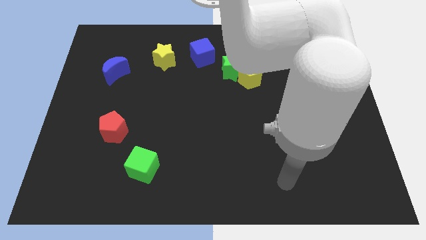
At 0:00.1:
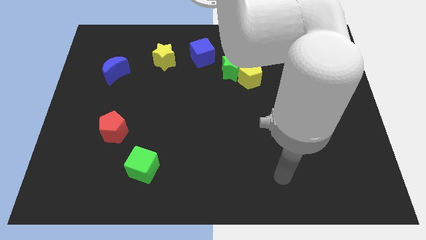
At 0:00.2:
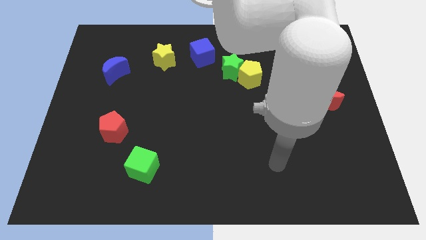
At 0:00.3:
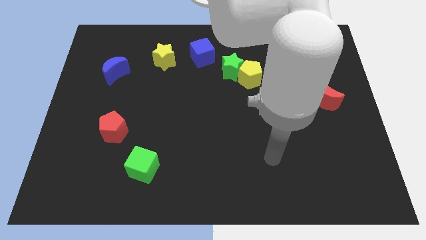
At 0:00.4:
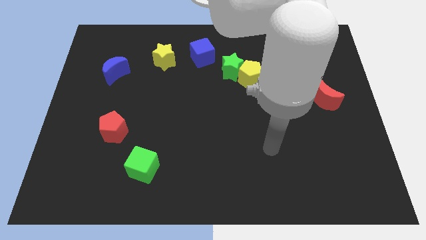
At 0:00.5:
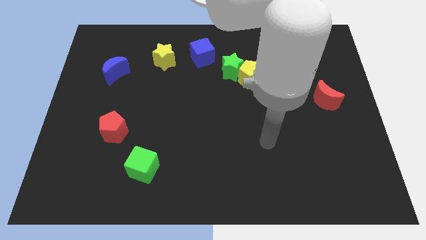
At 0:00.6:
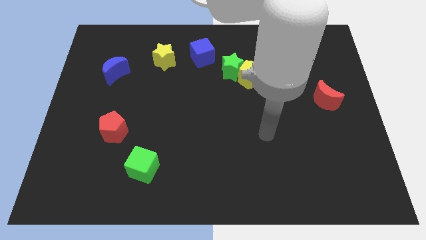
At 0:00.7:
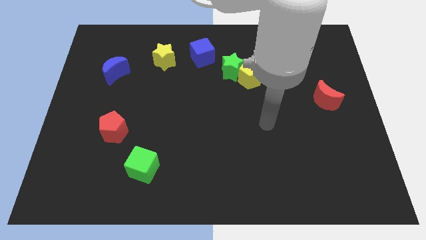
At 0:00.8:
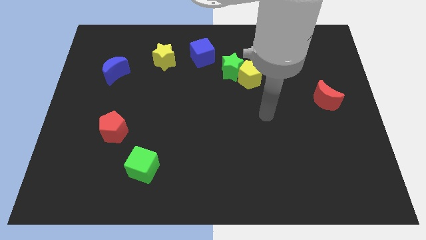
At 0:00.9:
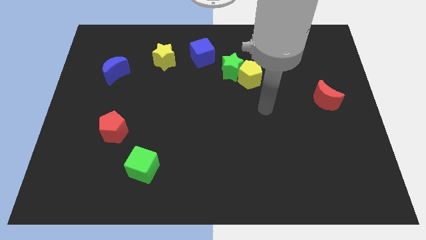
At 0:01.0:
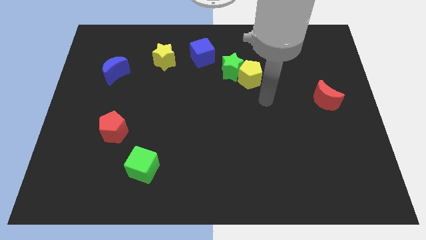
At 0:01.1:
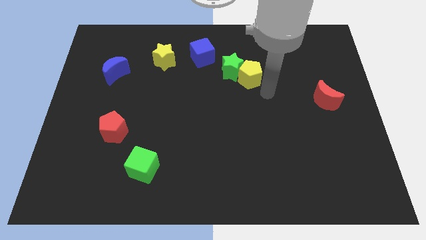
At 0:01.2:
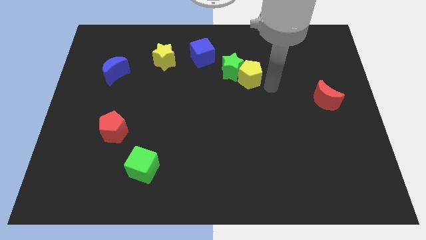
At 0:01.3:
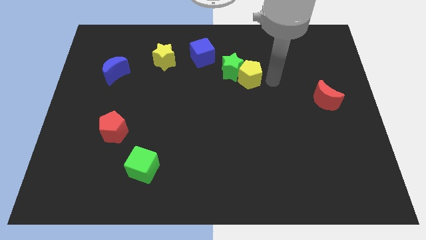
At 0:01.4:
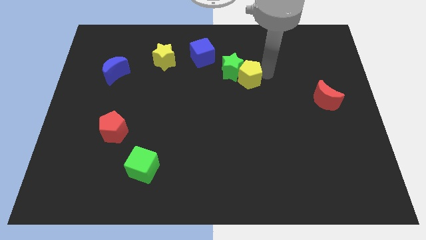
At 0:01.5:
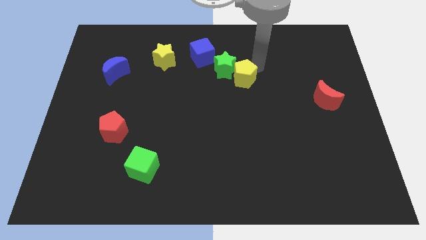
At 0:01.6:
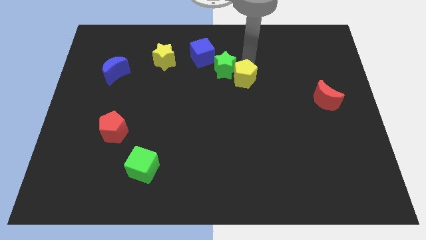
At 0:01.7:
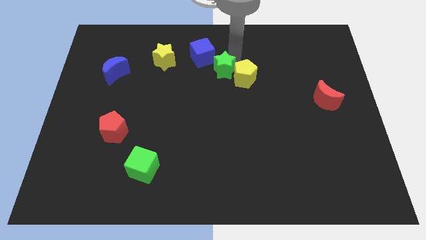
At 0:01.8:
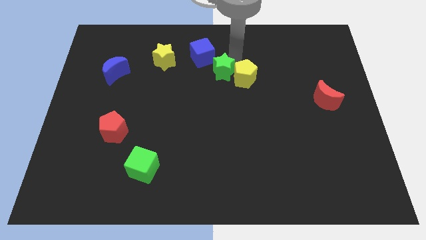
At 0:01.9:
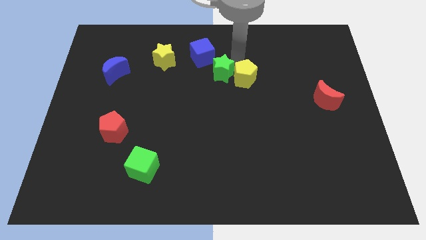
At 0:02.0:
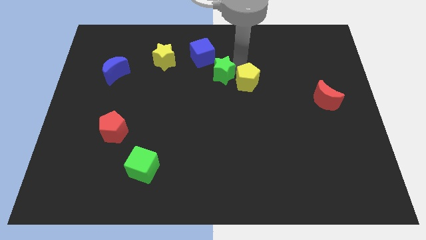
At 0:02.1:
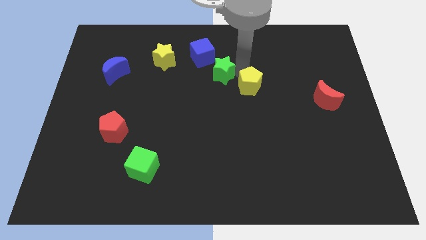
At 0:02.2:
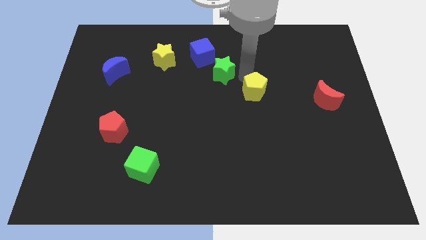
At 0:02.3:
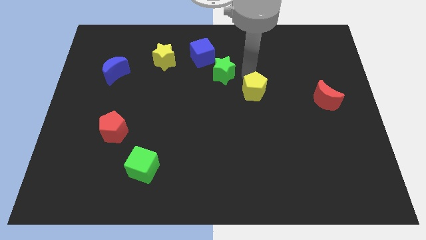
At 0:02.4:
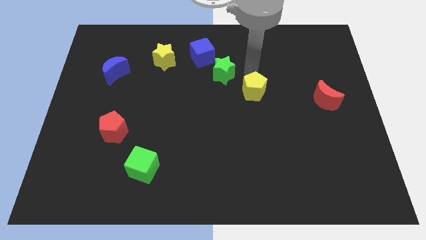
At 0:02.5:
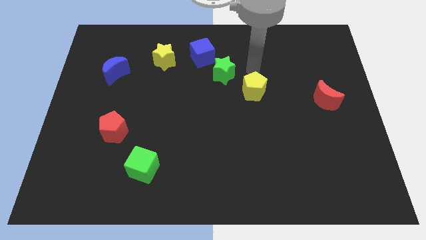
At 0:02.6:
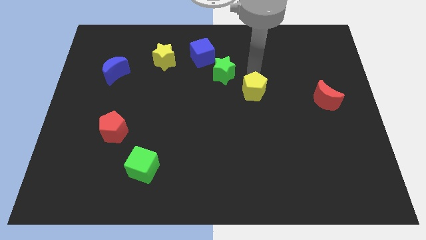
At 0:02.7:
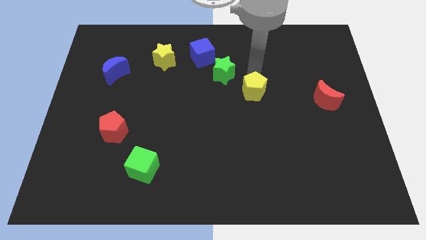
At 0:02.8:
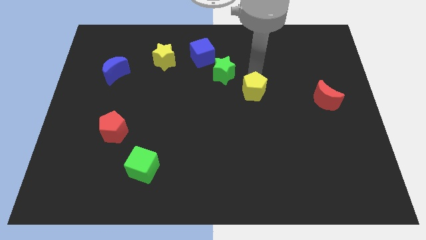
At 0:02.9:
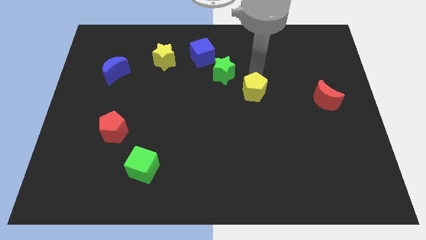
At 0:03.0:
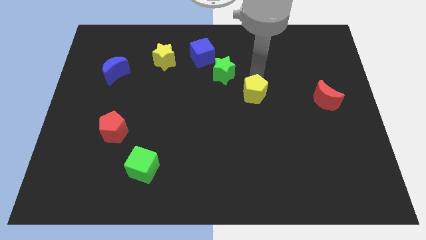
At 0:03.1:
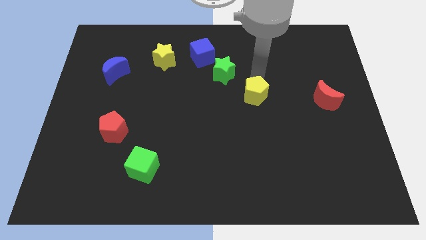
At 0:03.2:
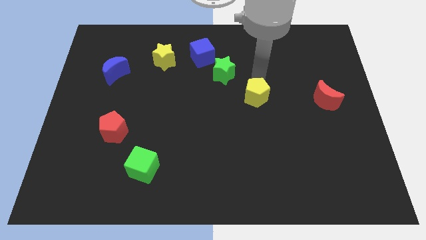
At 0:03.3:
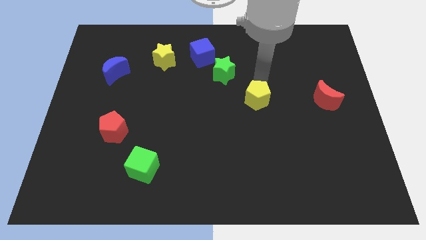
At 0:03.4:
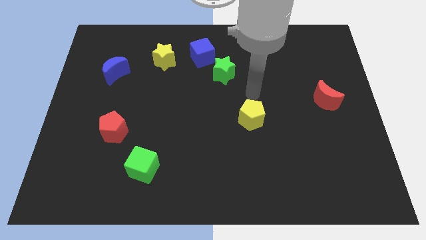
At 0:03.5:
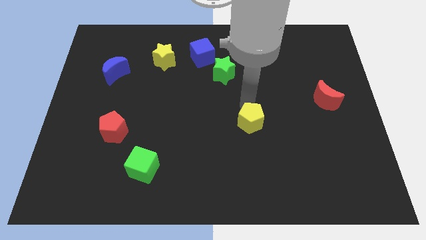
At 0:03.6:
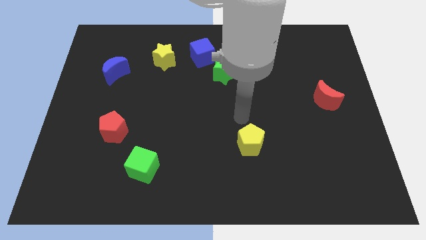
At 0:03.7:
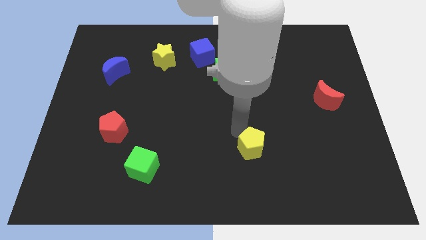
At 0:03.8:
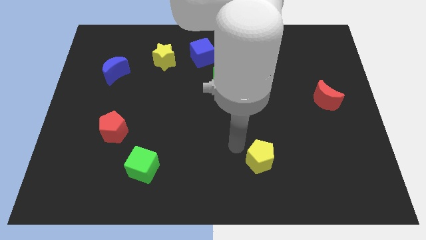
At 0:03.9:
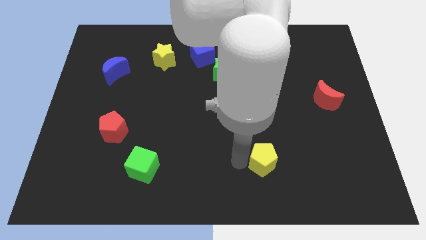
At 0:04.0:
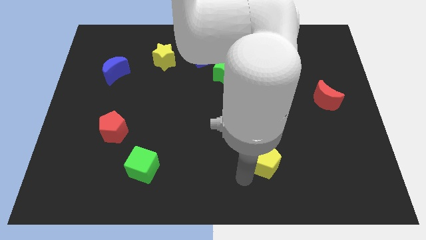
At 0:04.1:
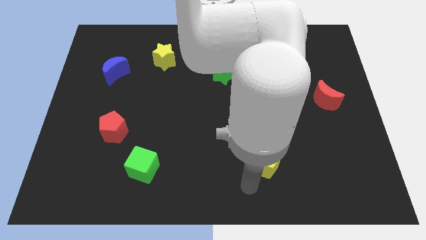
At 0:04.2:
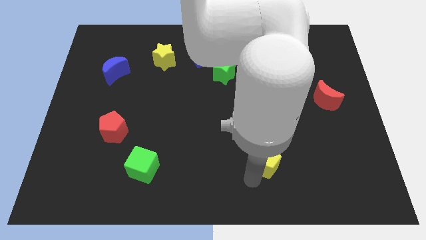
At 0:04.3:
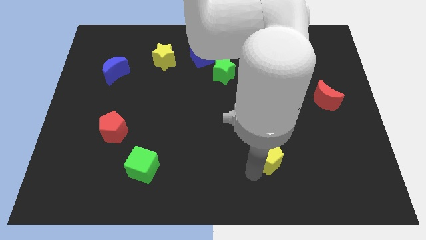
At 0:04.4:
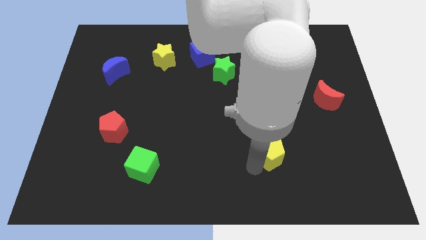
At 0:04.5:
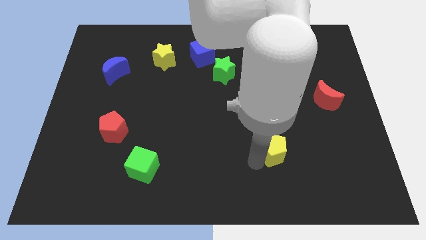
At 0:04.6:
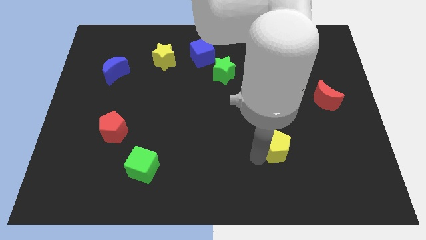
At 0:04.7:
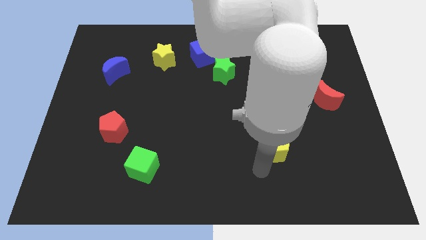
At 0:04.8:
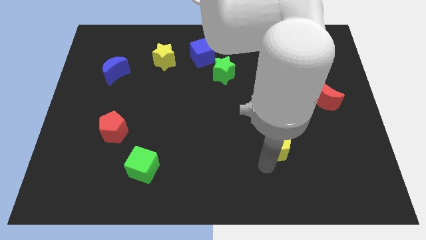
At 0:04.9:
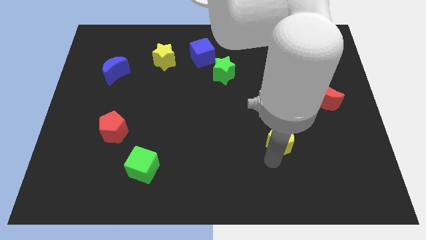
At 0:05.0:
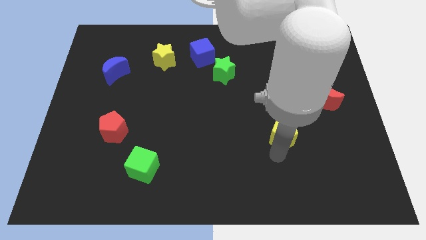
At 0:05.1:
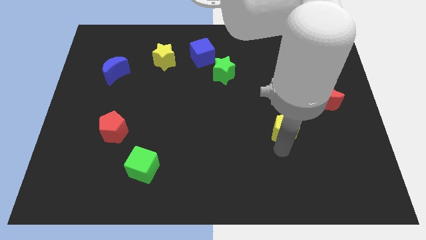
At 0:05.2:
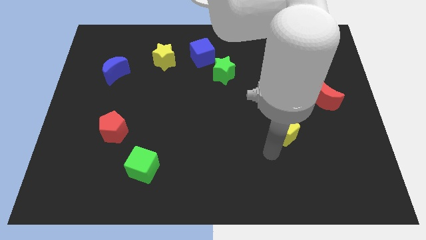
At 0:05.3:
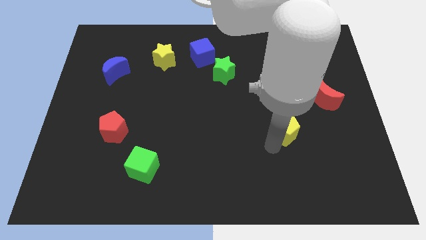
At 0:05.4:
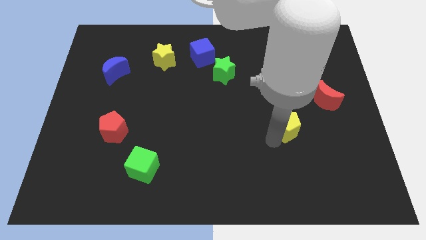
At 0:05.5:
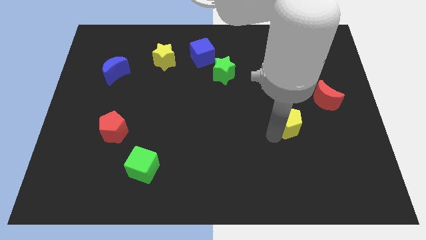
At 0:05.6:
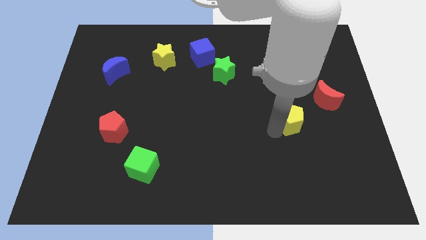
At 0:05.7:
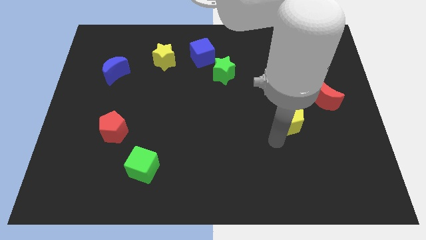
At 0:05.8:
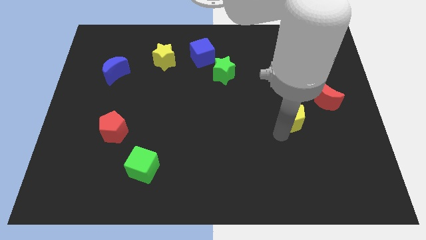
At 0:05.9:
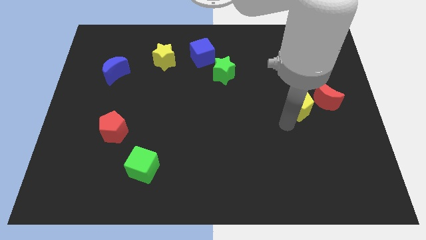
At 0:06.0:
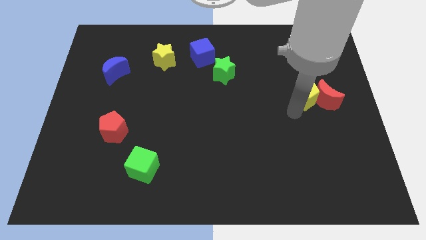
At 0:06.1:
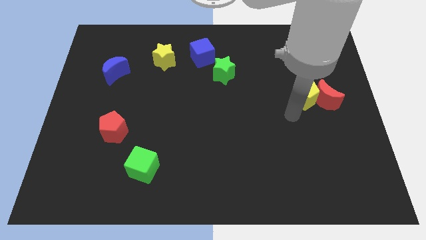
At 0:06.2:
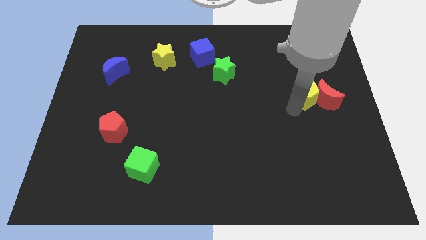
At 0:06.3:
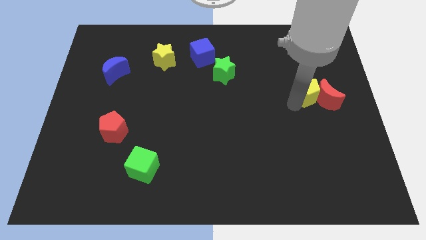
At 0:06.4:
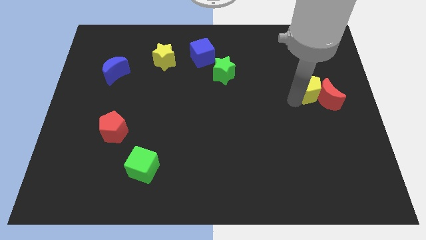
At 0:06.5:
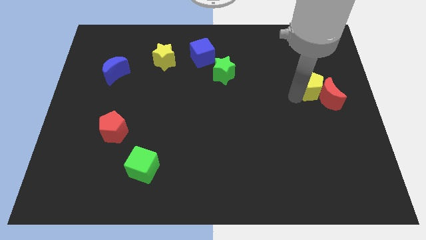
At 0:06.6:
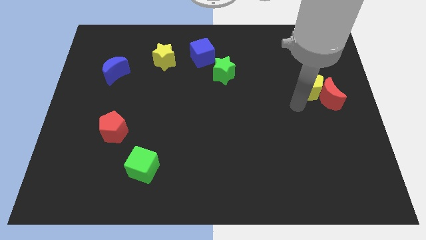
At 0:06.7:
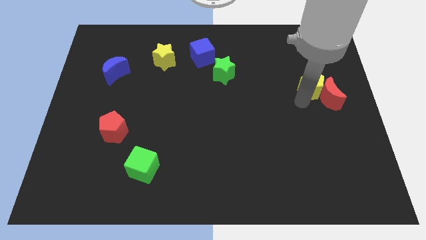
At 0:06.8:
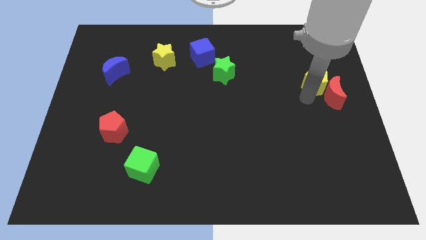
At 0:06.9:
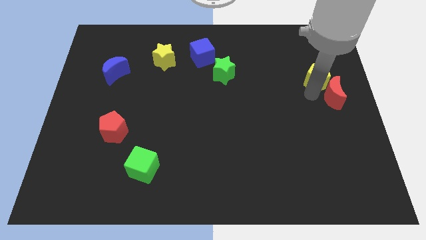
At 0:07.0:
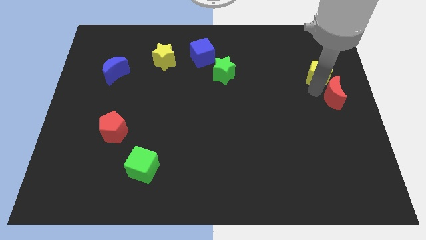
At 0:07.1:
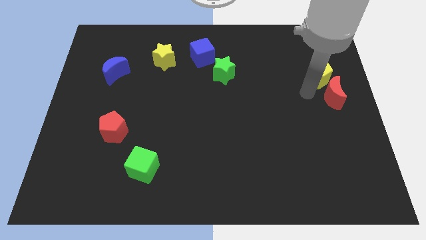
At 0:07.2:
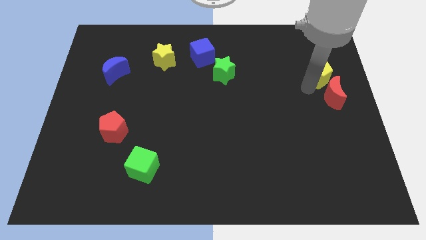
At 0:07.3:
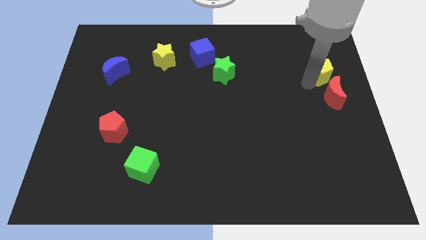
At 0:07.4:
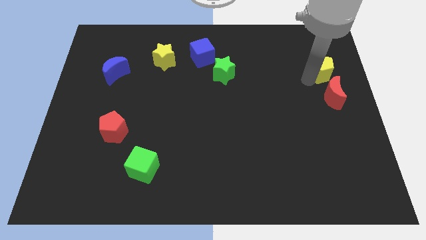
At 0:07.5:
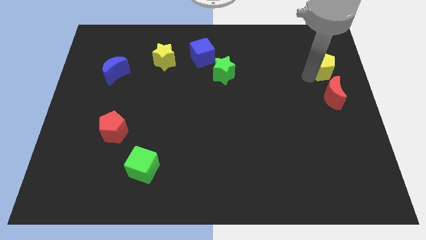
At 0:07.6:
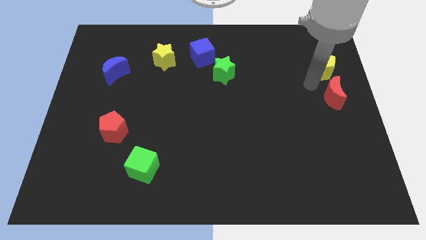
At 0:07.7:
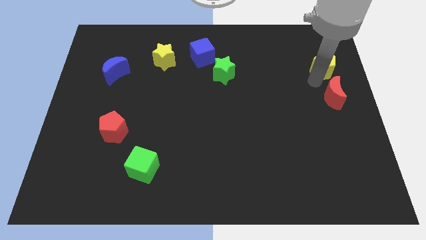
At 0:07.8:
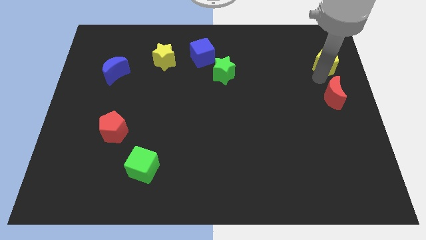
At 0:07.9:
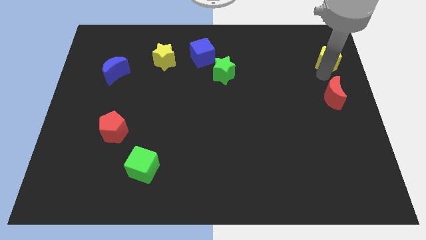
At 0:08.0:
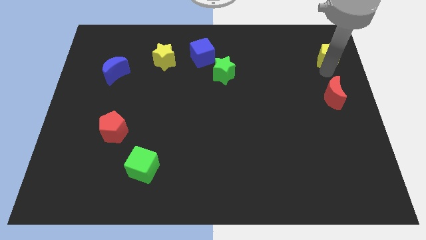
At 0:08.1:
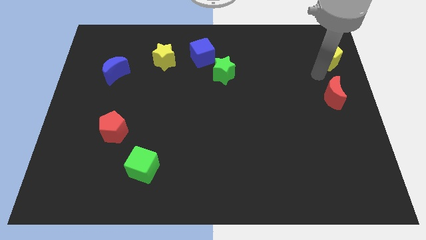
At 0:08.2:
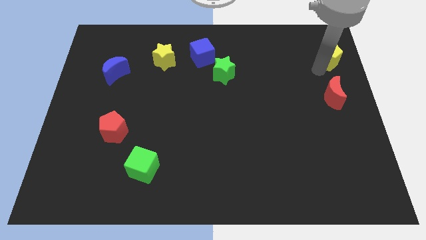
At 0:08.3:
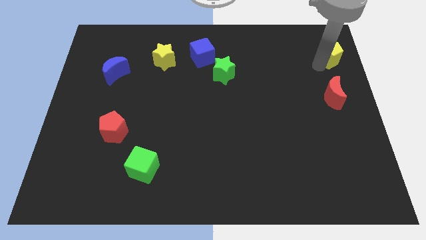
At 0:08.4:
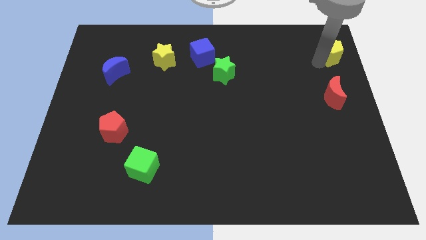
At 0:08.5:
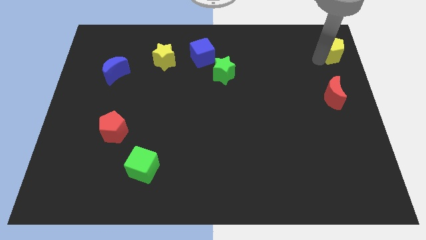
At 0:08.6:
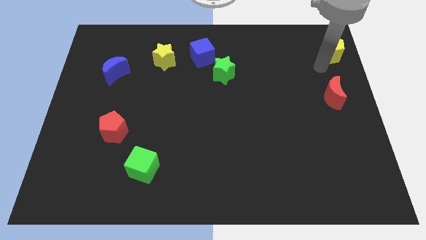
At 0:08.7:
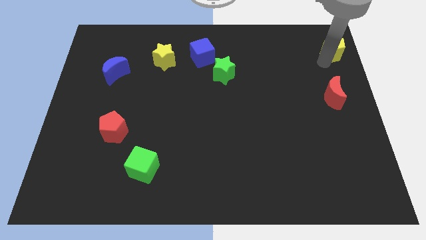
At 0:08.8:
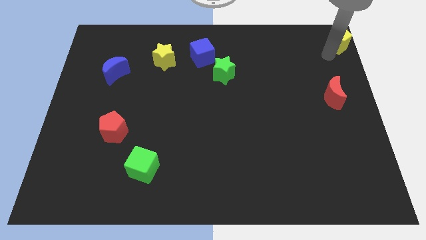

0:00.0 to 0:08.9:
move the yellow pentagon to the top right of the board
